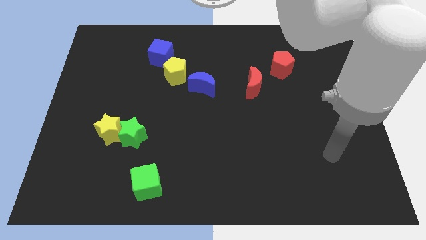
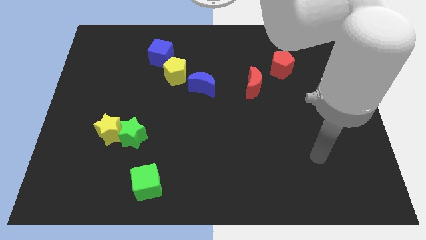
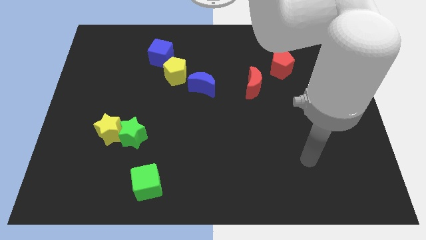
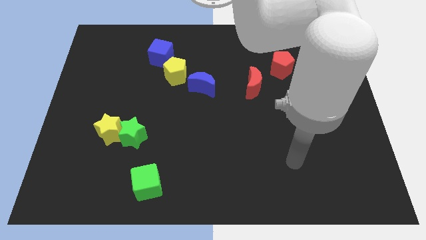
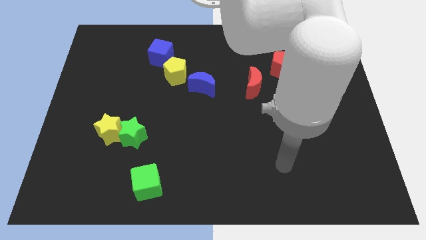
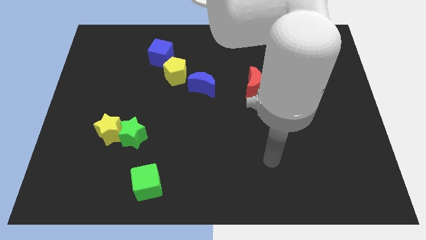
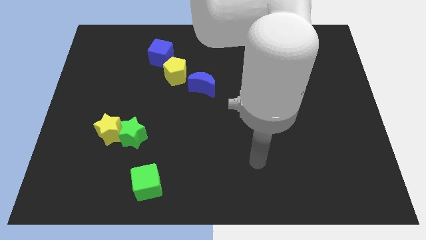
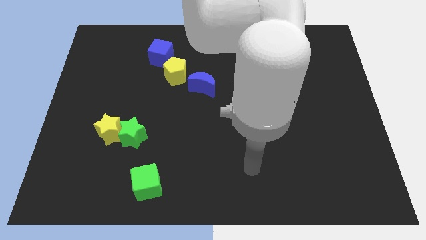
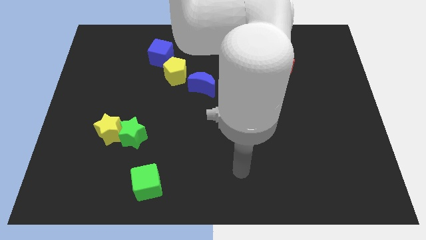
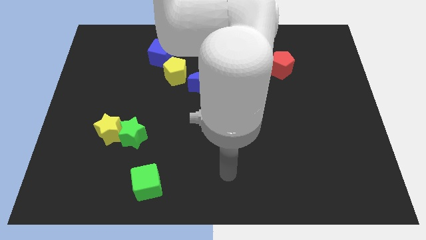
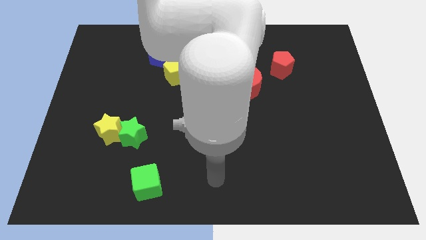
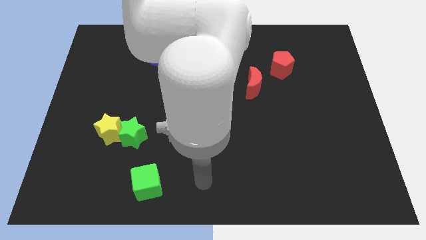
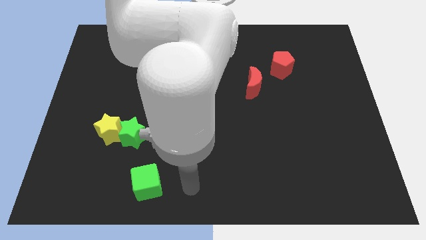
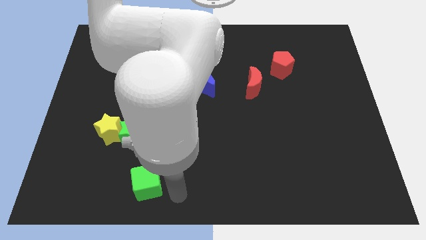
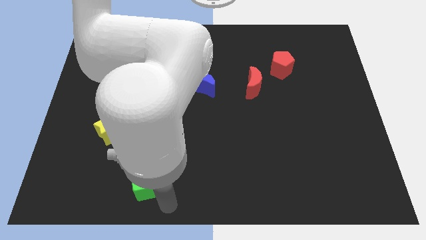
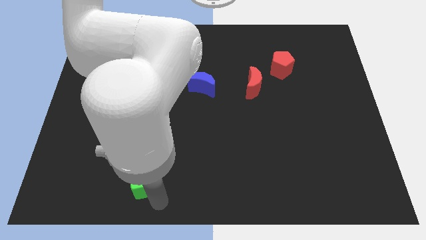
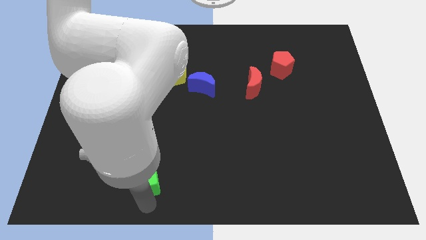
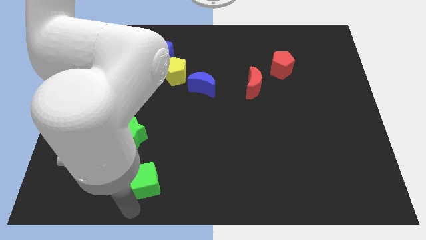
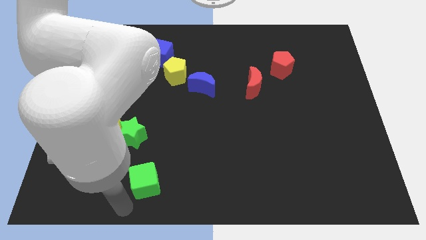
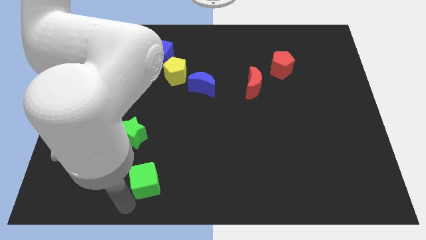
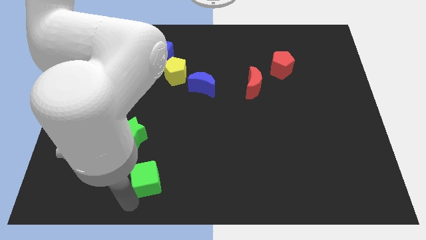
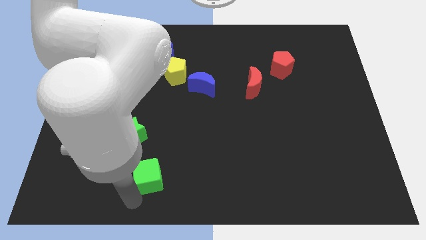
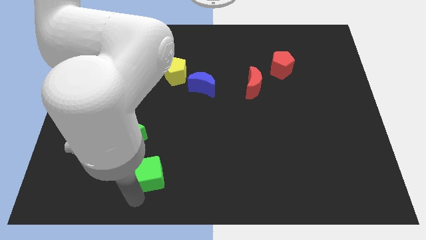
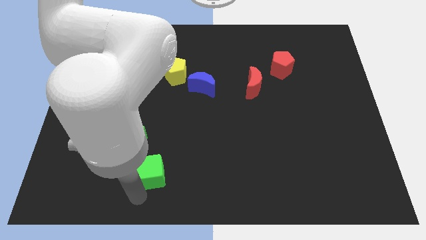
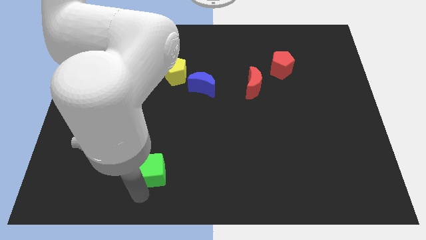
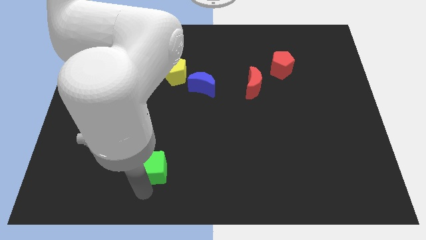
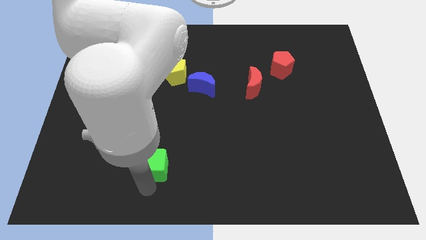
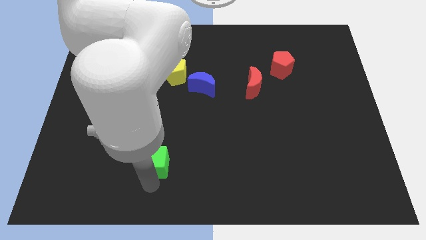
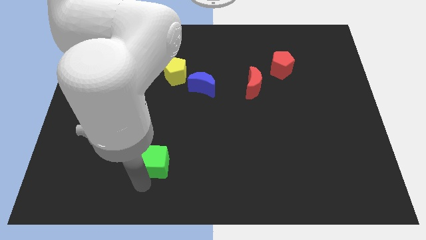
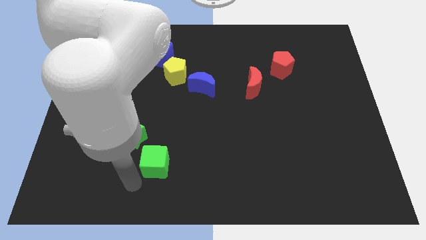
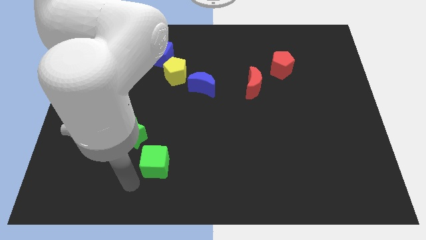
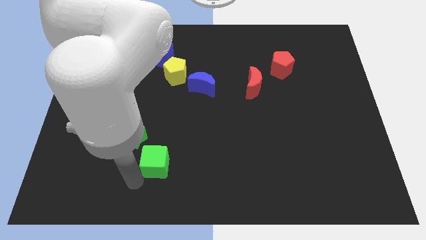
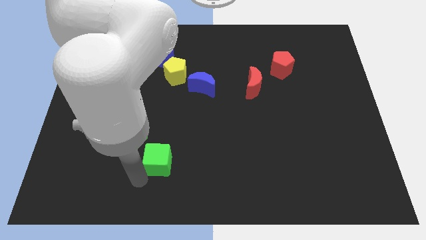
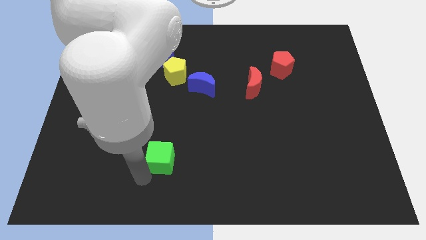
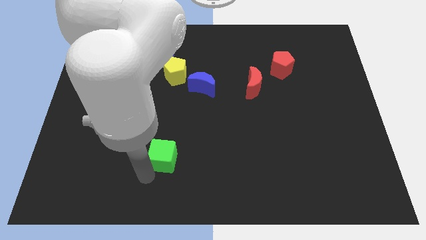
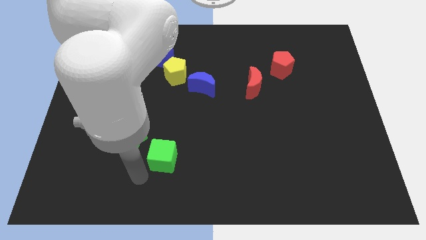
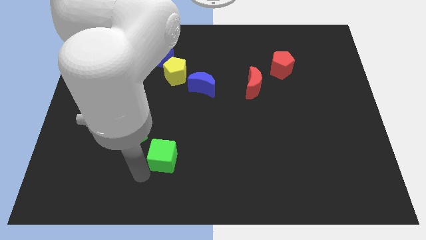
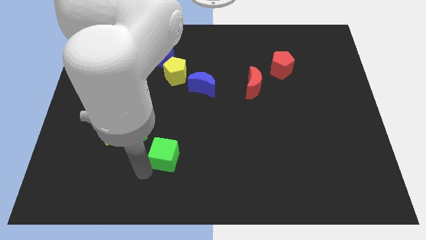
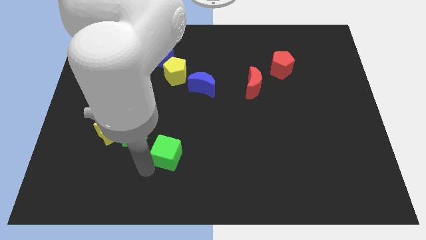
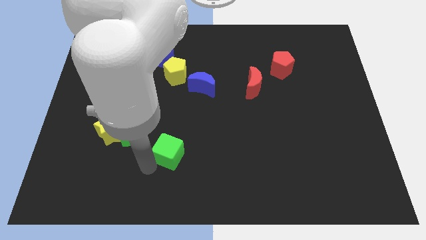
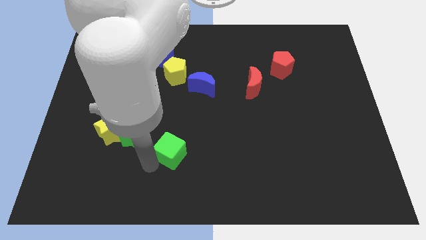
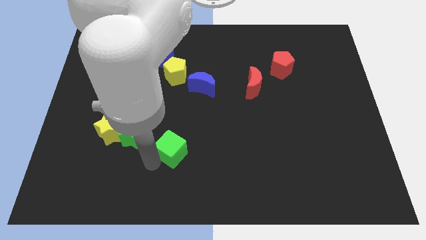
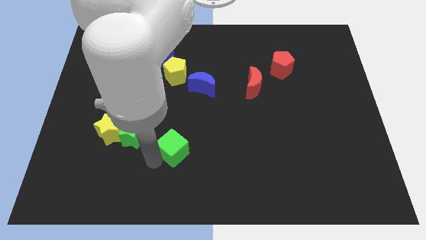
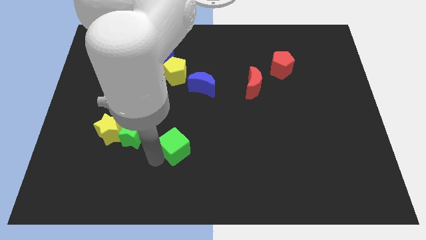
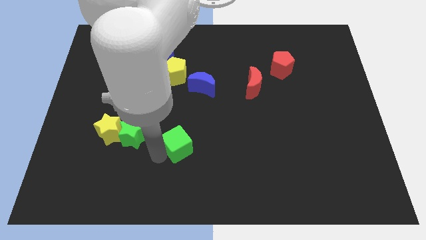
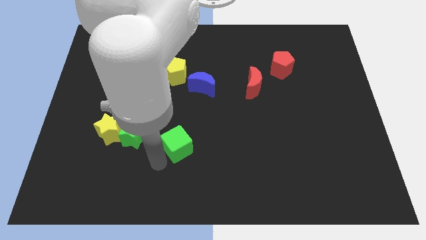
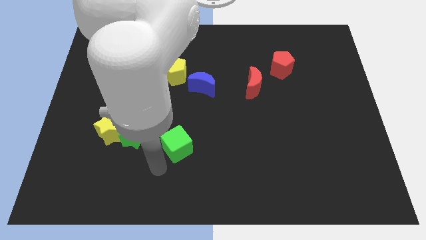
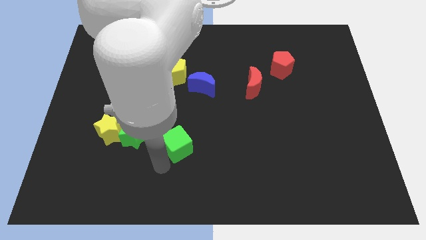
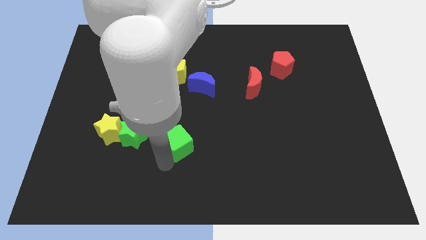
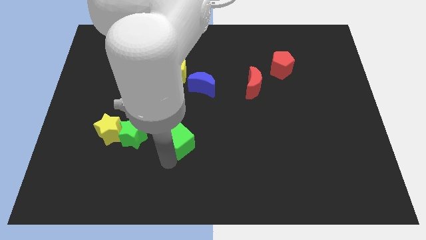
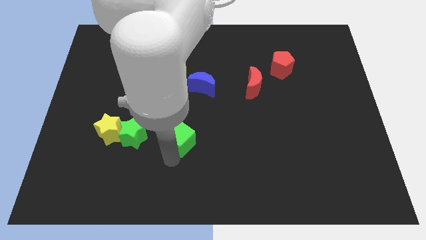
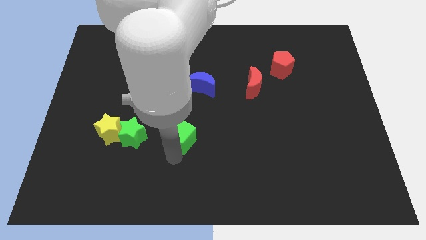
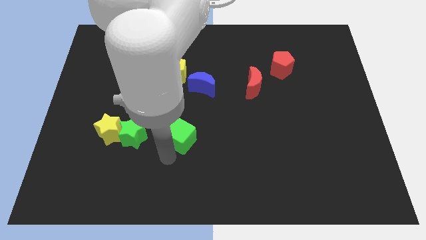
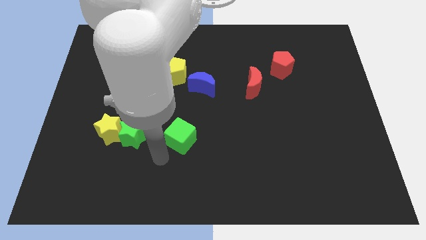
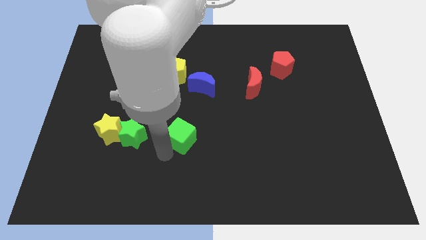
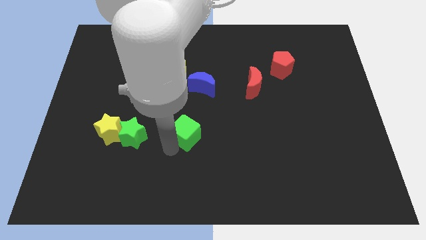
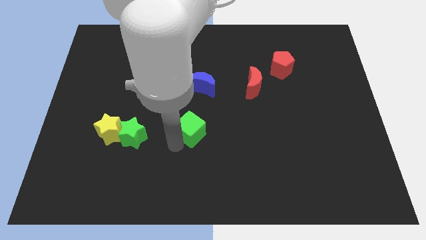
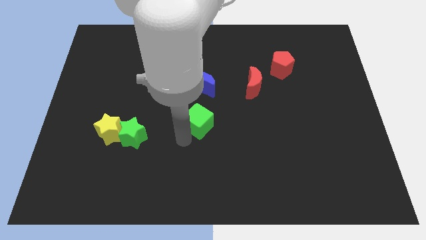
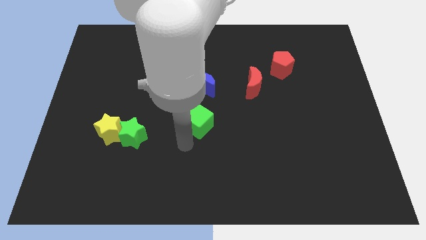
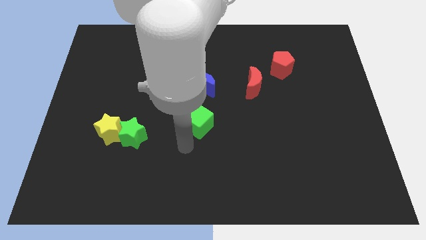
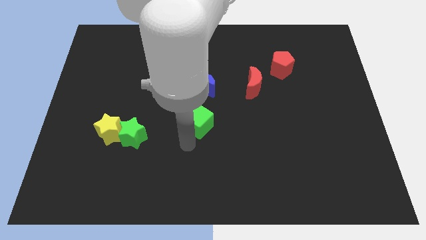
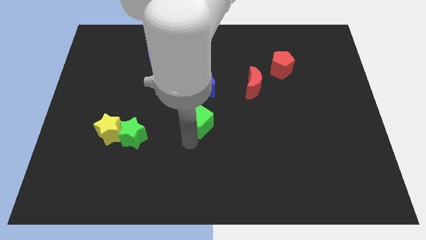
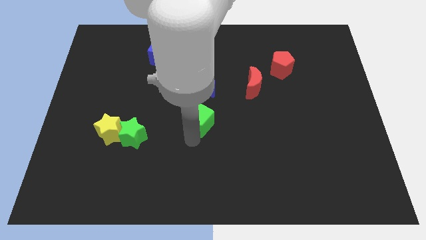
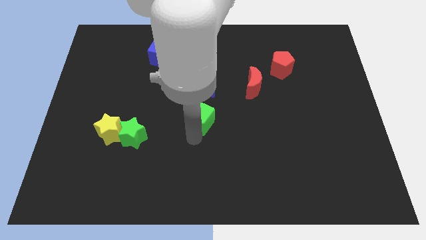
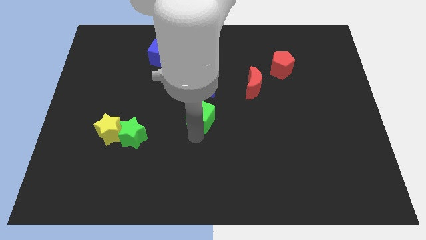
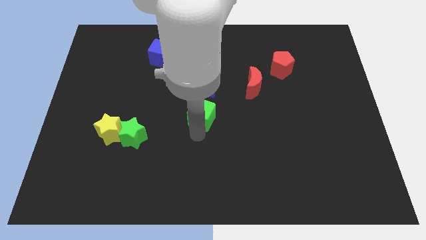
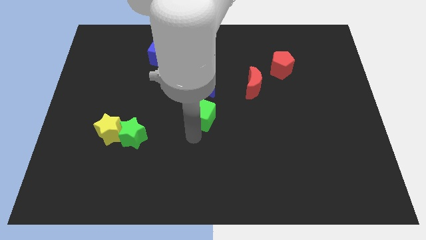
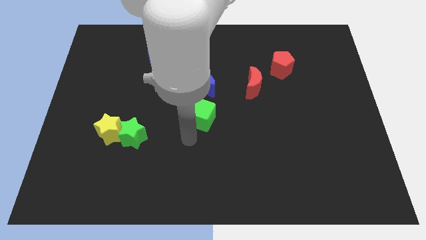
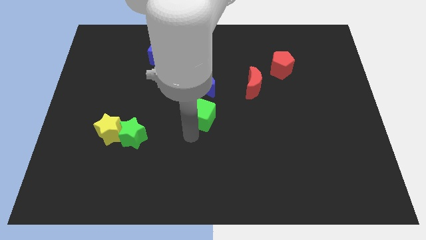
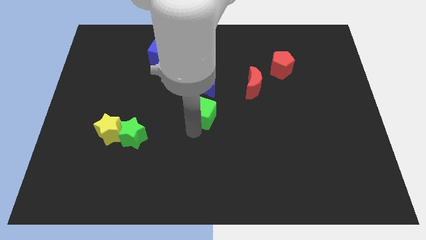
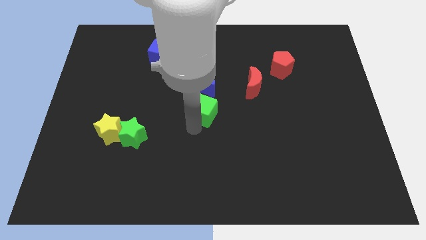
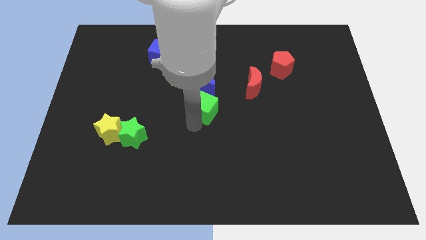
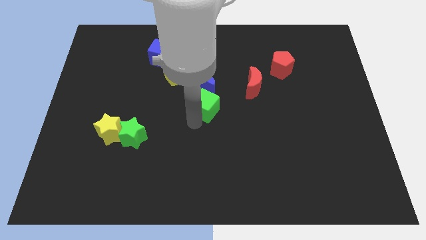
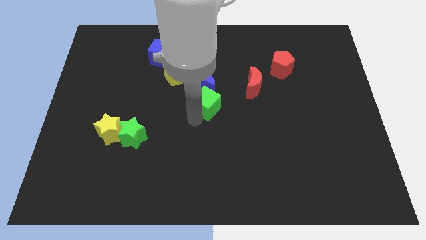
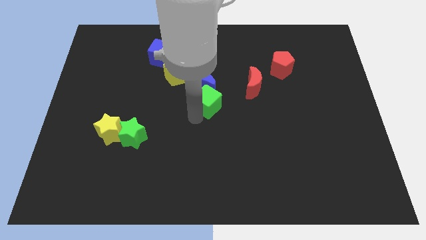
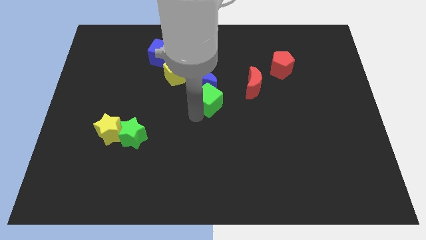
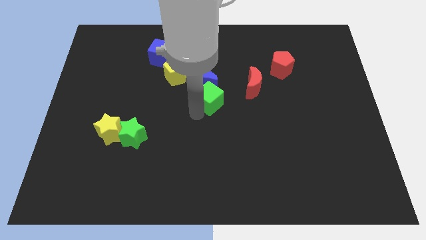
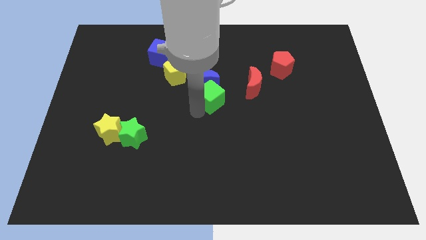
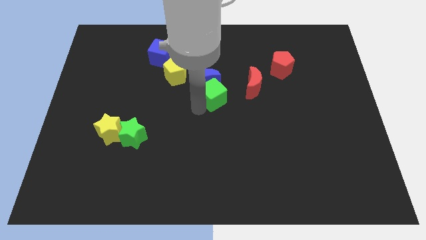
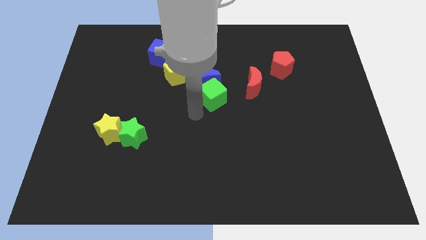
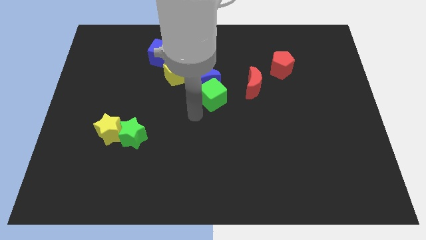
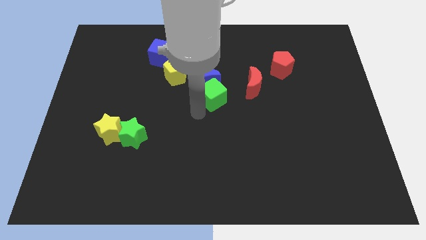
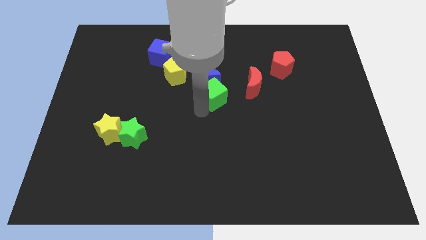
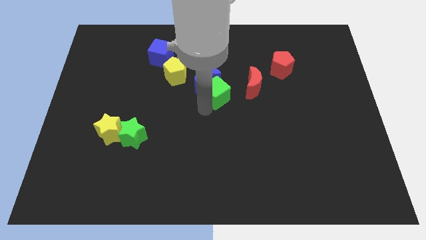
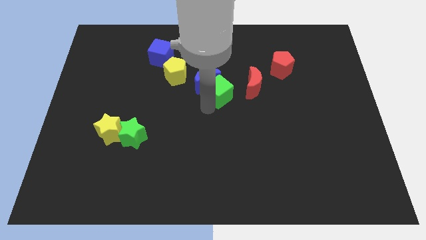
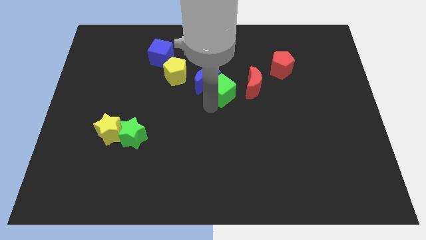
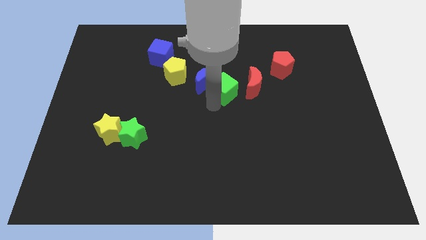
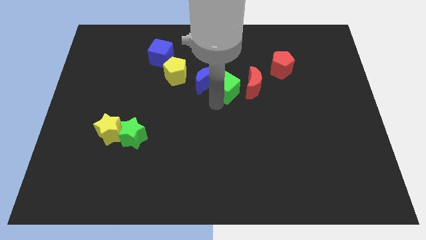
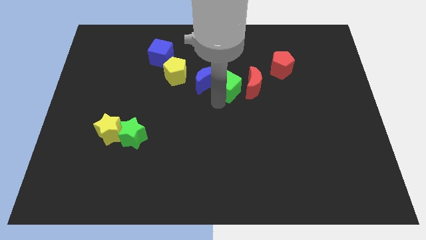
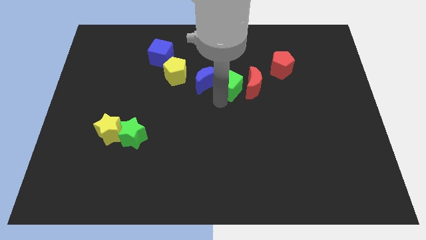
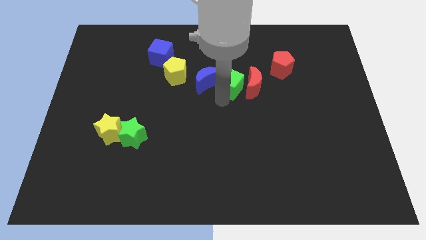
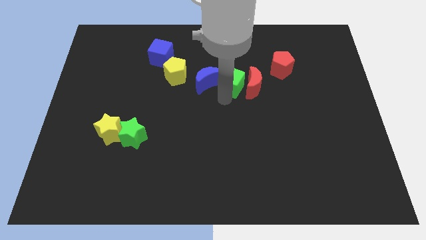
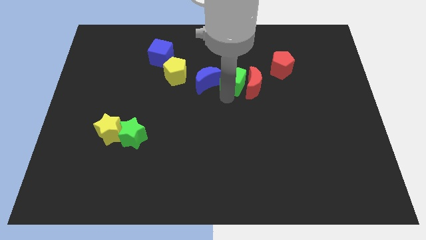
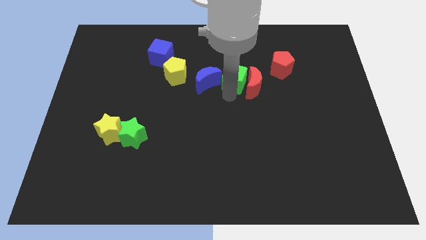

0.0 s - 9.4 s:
slide the green cube left of the red pentagon
